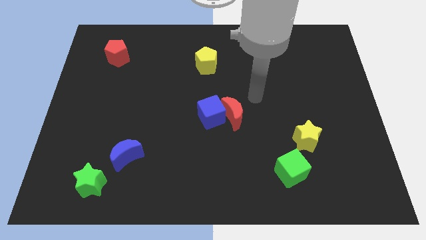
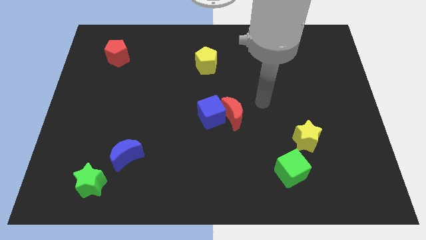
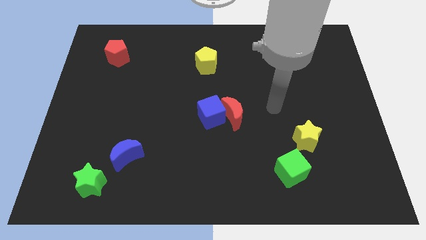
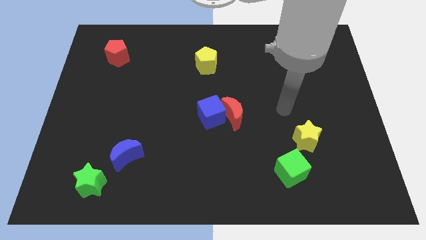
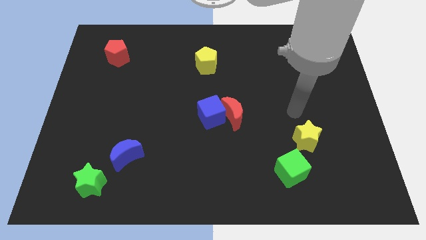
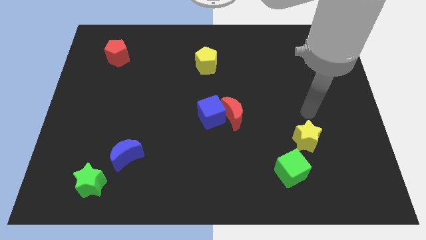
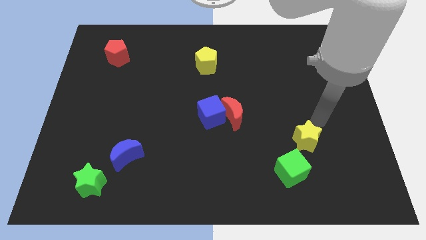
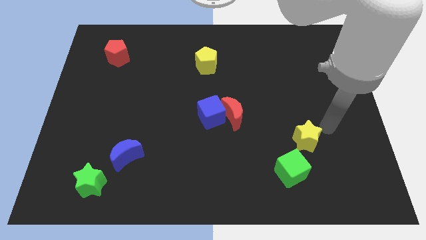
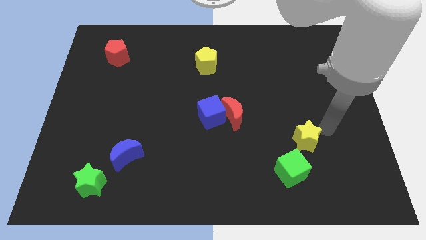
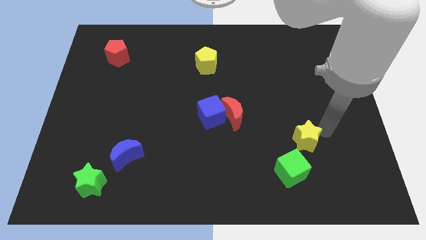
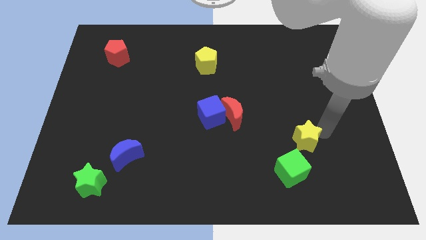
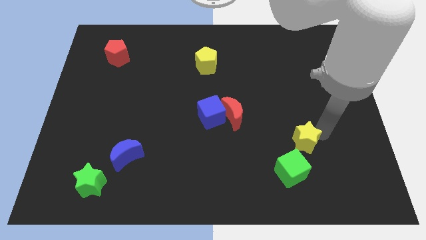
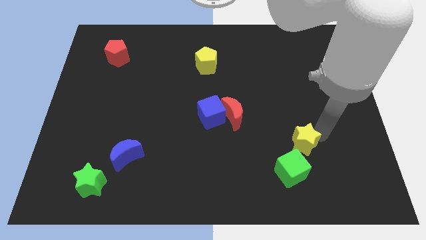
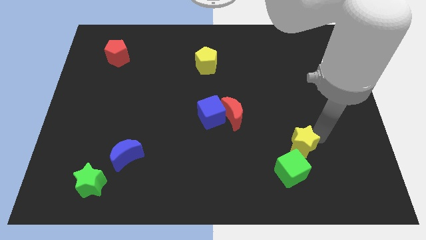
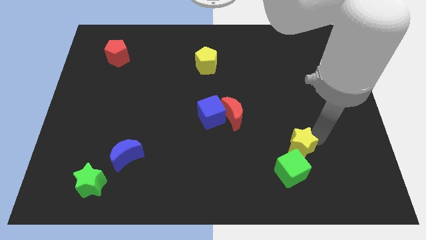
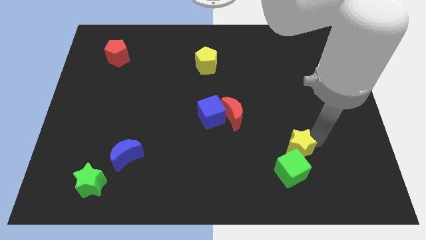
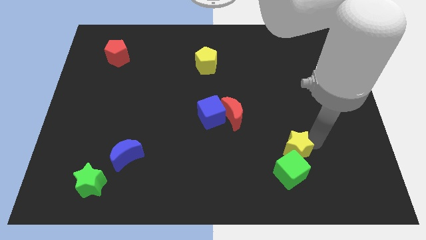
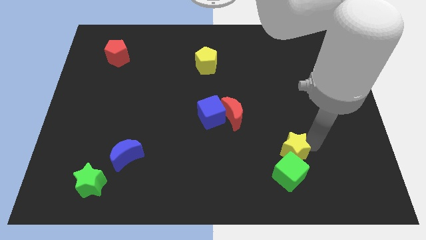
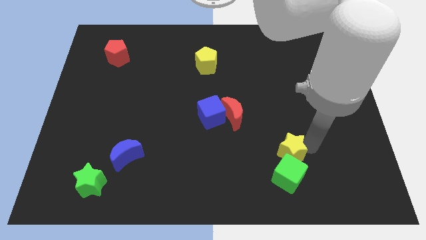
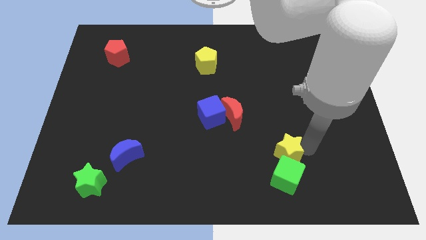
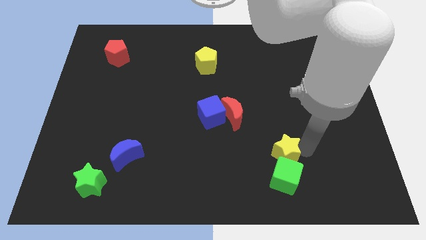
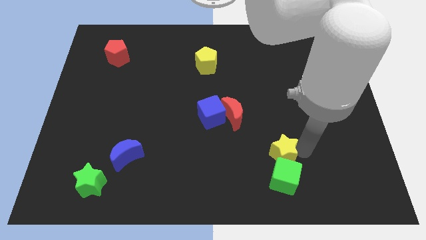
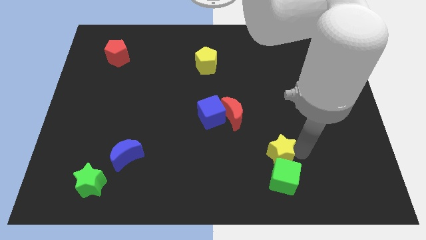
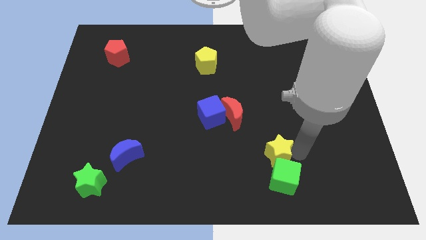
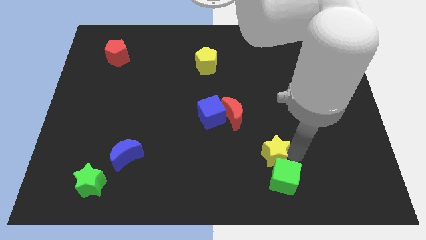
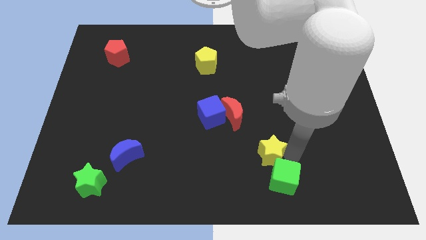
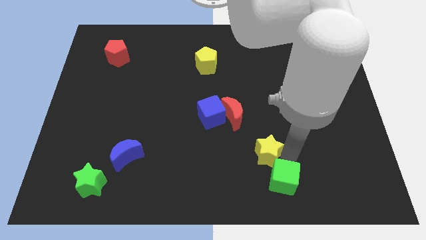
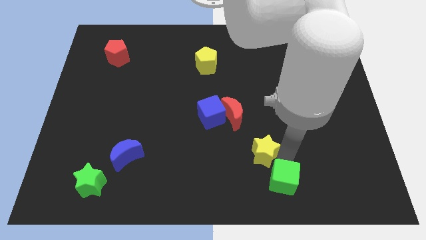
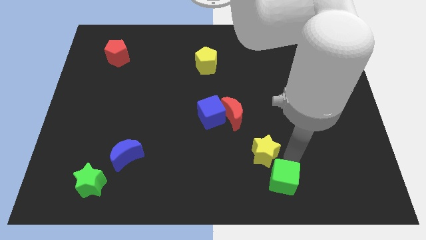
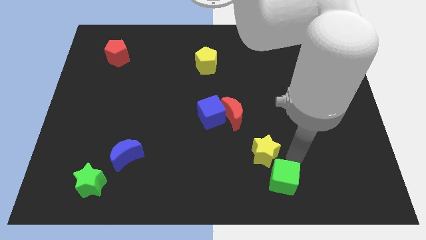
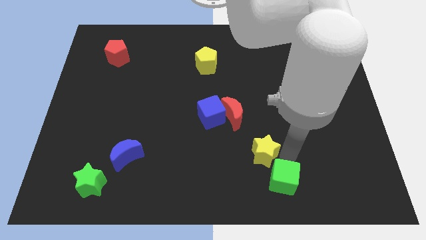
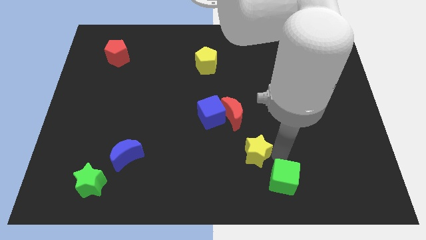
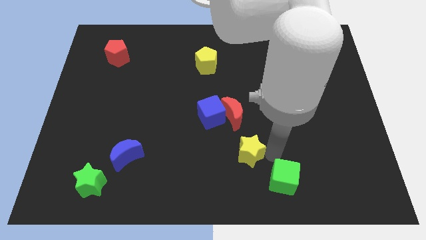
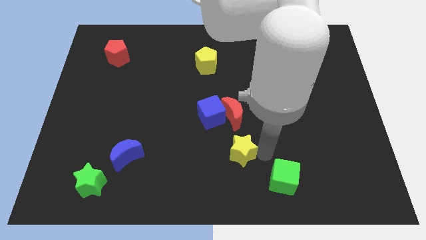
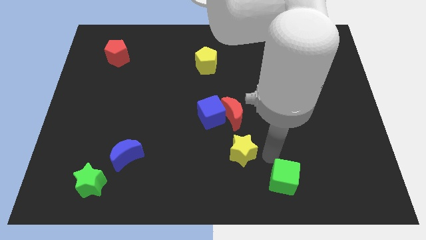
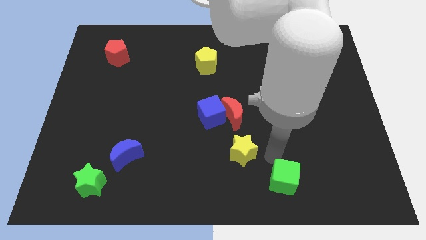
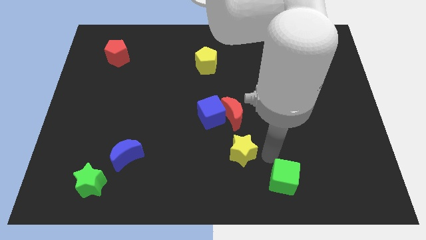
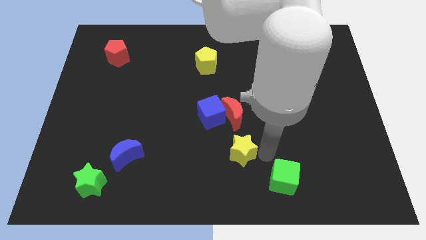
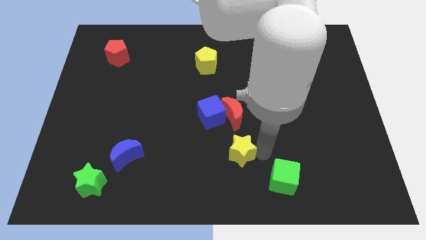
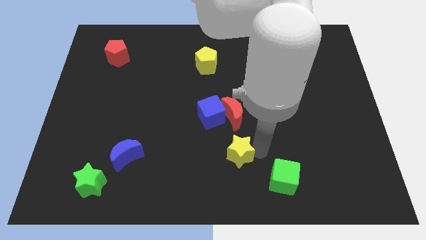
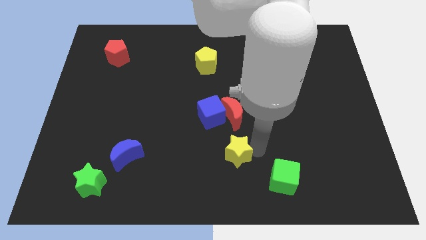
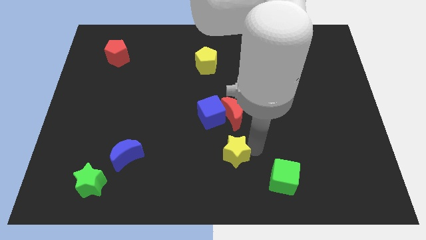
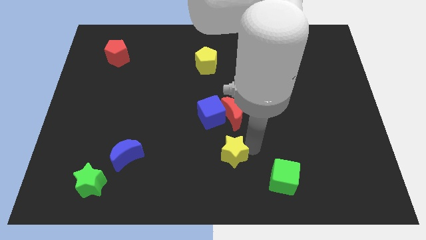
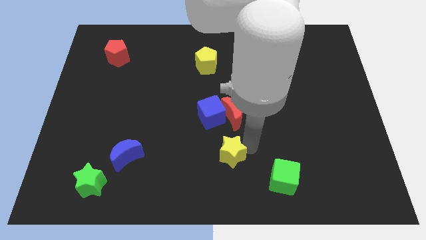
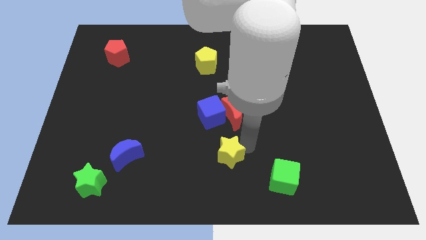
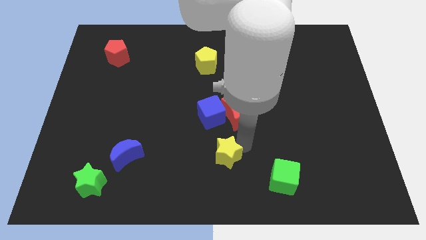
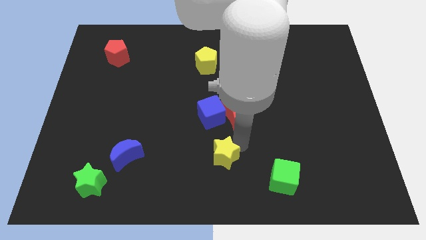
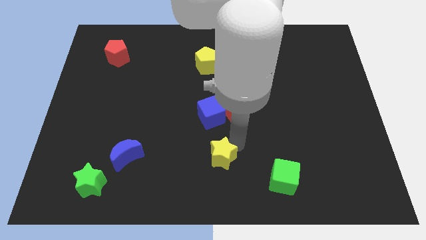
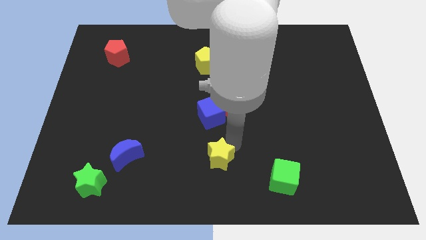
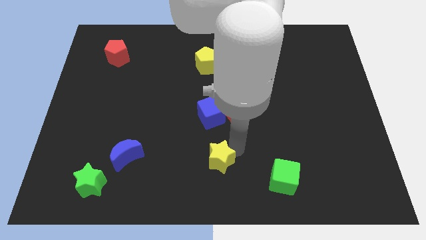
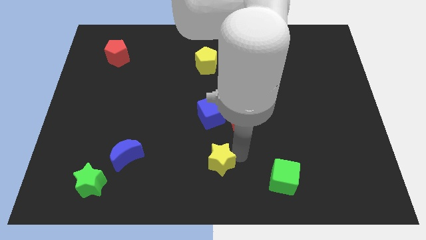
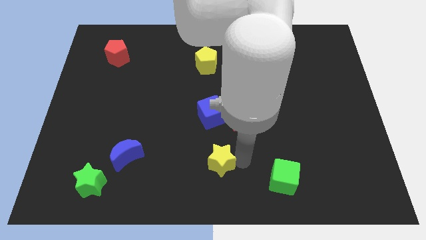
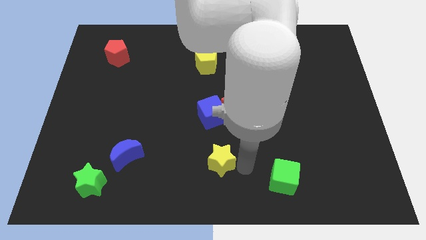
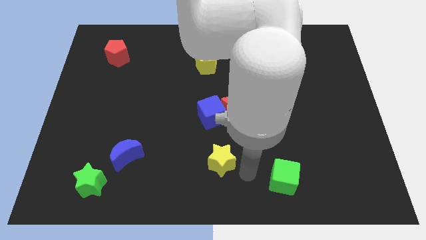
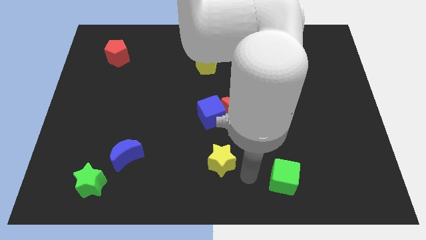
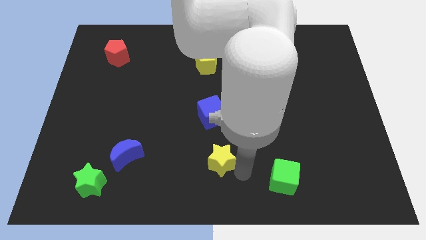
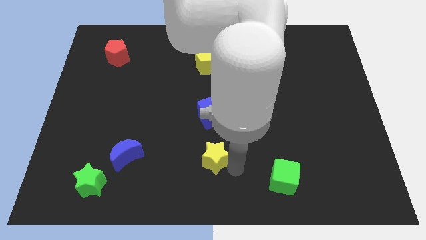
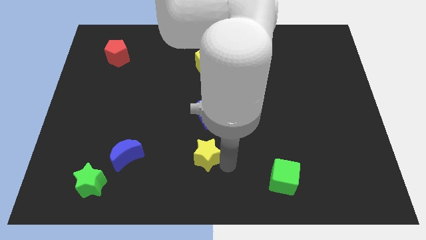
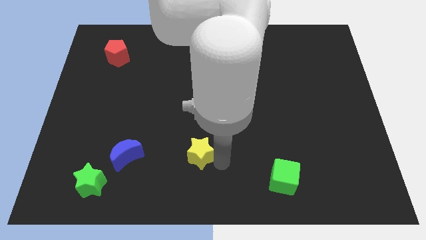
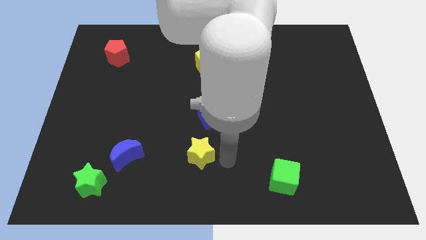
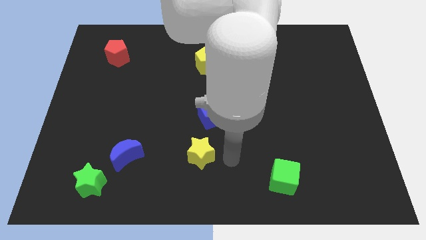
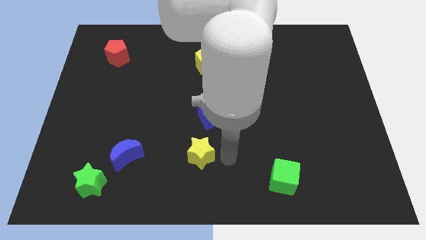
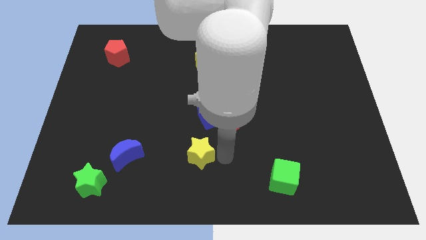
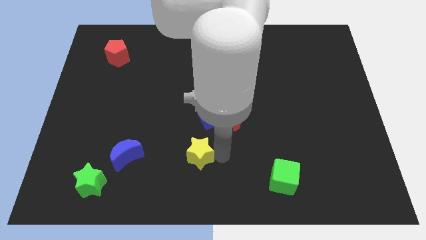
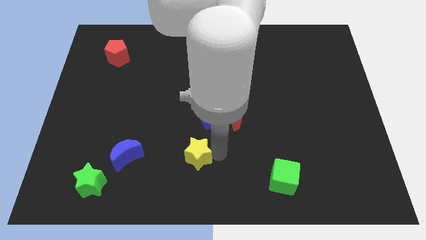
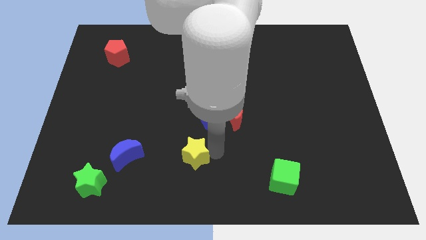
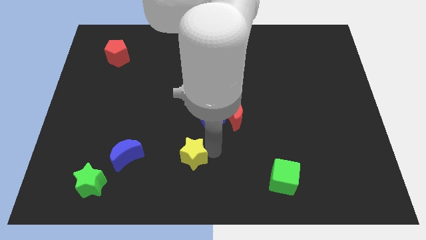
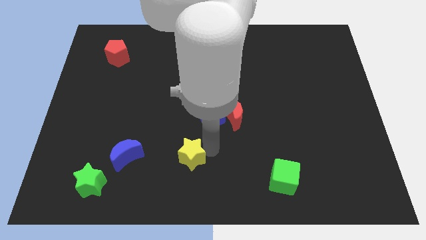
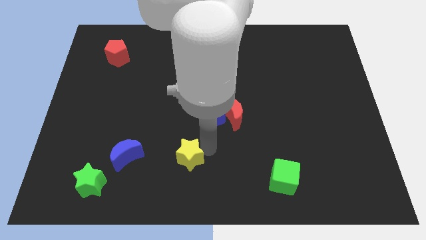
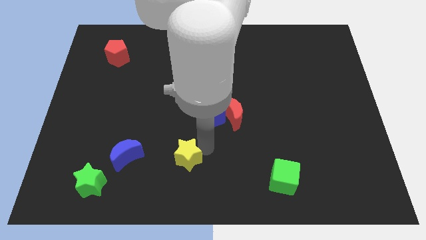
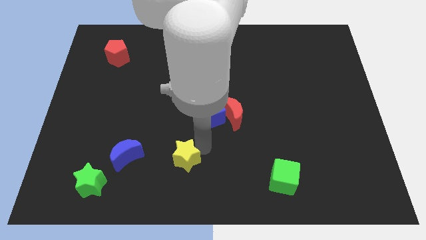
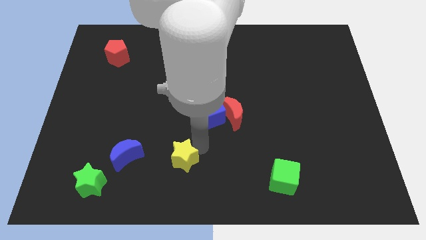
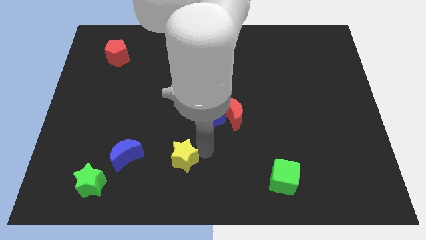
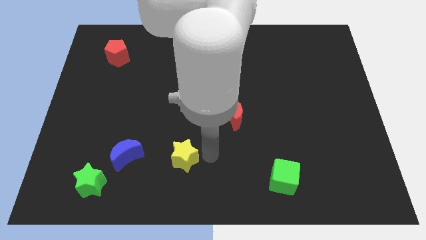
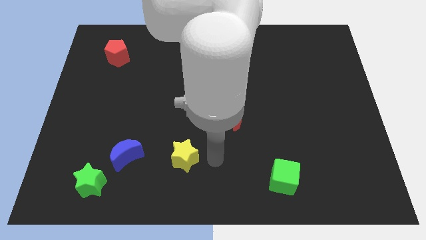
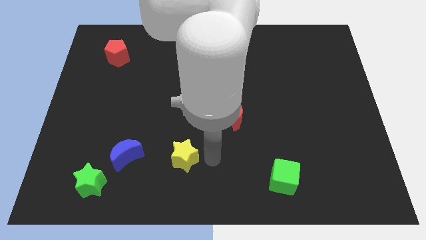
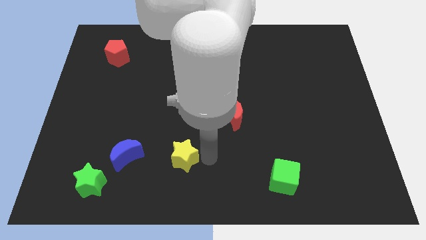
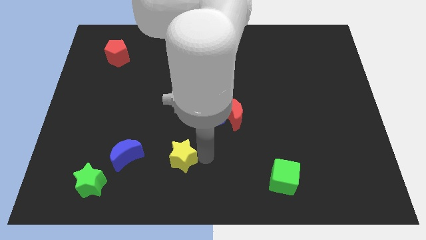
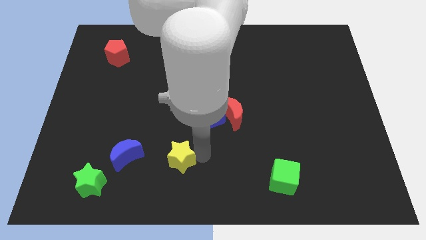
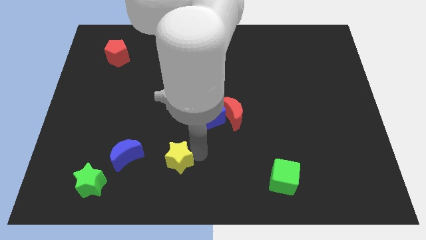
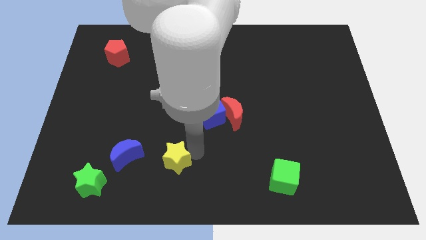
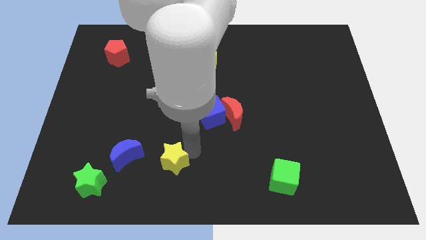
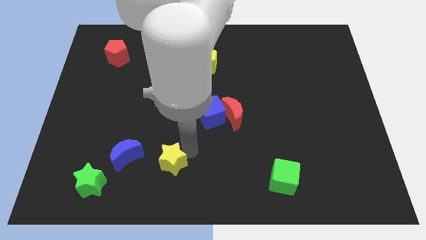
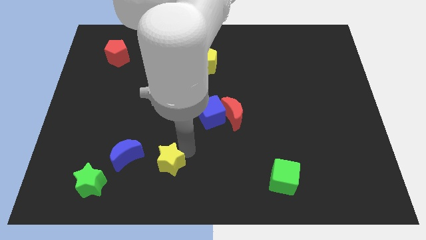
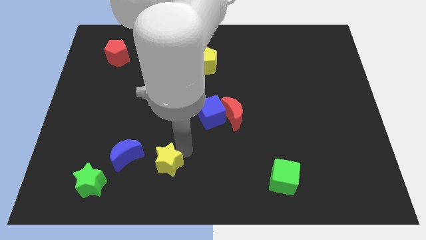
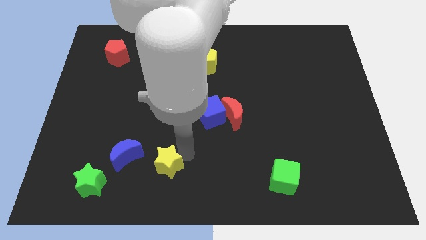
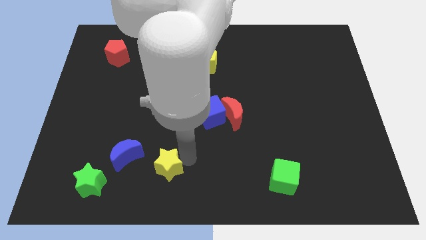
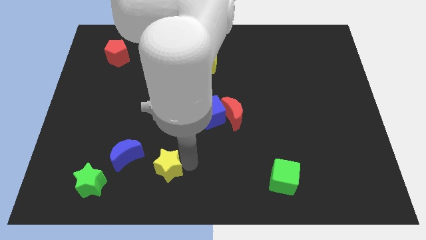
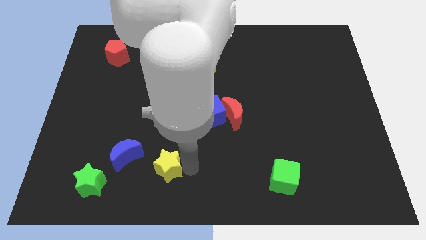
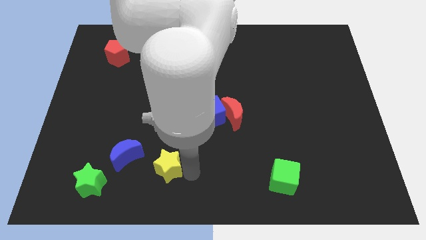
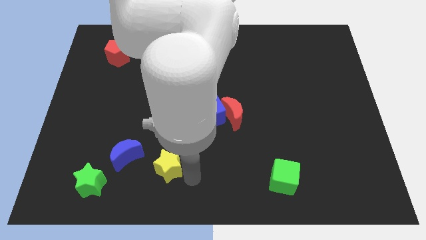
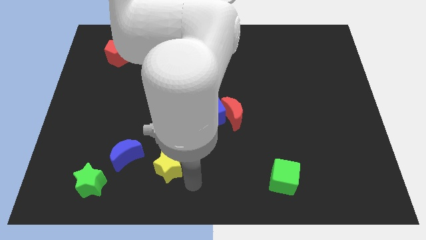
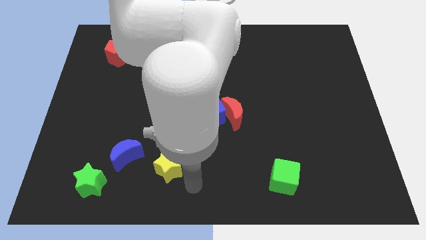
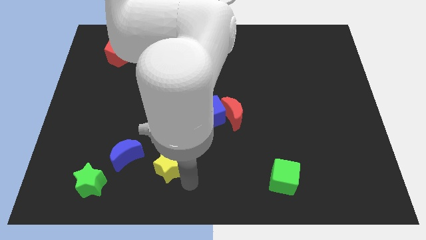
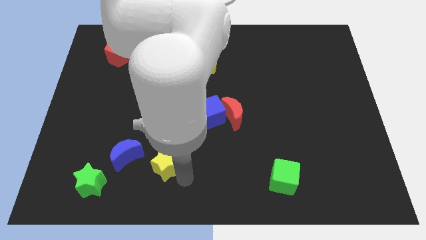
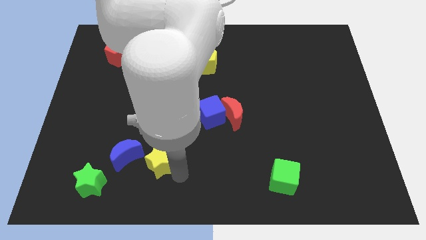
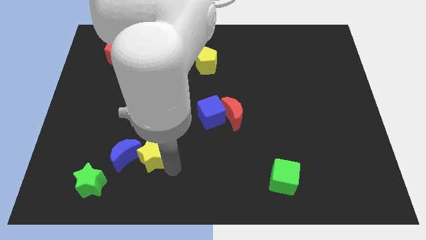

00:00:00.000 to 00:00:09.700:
slide the yellow star next to the blue moon
